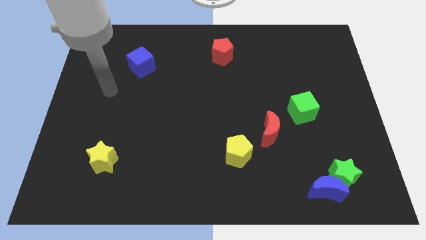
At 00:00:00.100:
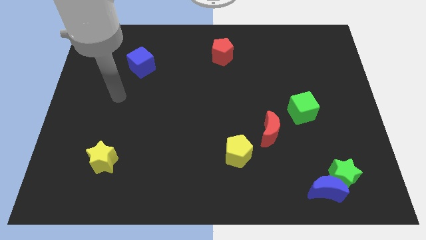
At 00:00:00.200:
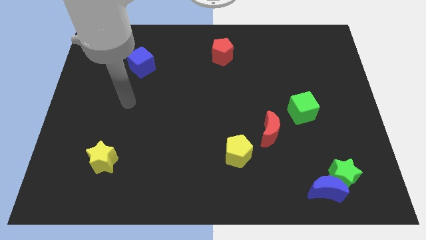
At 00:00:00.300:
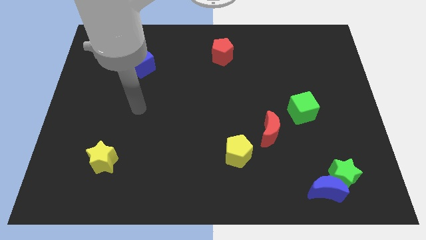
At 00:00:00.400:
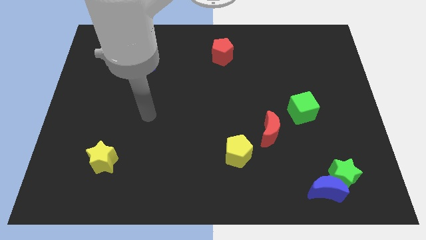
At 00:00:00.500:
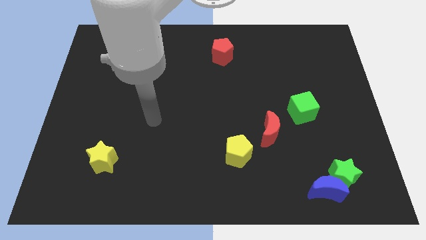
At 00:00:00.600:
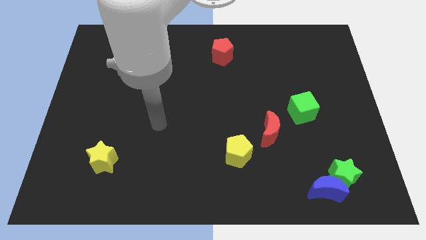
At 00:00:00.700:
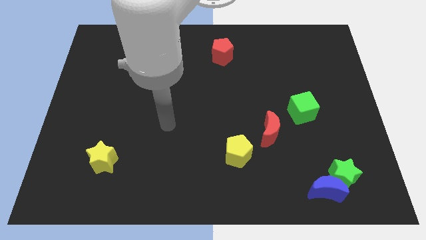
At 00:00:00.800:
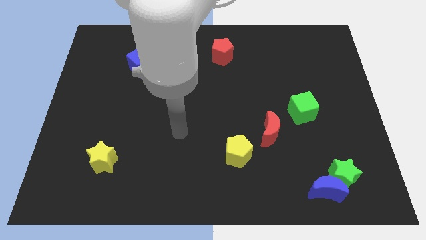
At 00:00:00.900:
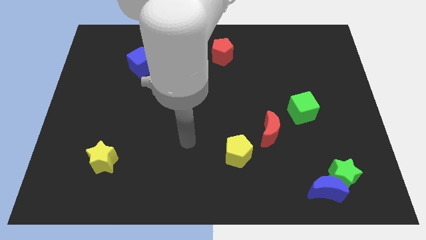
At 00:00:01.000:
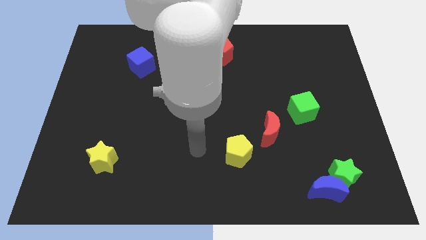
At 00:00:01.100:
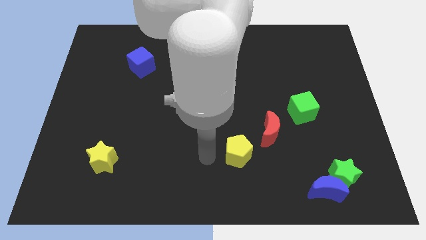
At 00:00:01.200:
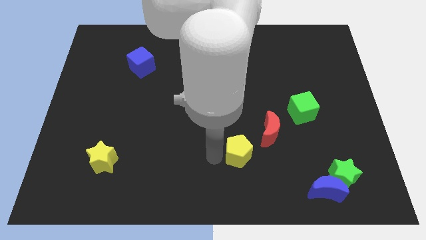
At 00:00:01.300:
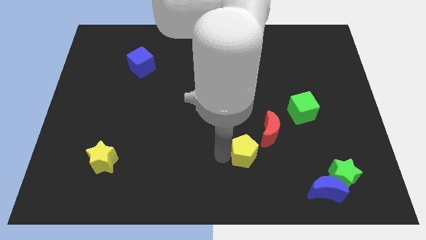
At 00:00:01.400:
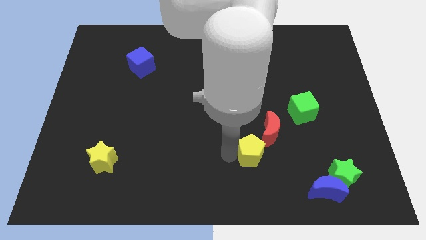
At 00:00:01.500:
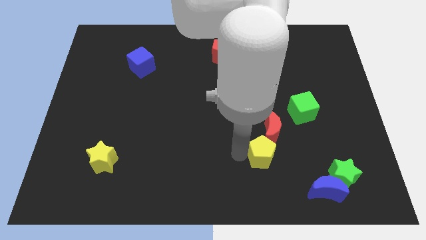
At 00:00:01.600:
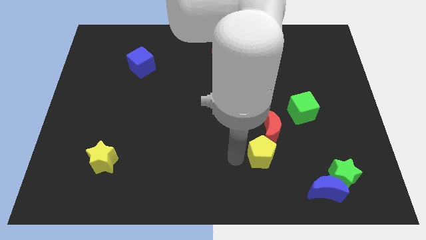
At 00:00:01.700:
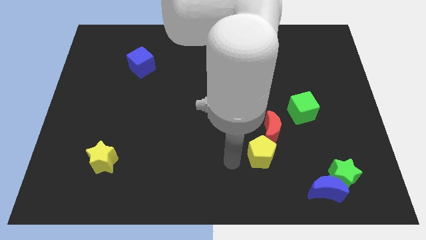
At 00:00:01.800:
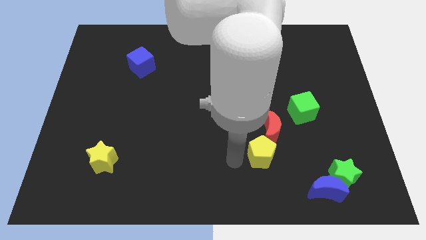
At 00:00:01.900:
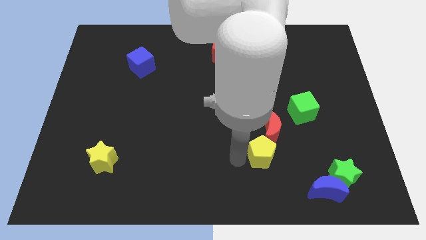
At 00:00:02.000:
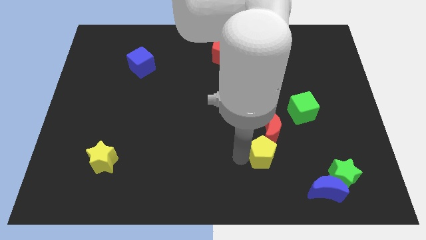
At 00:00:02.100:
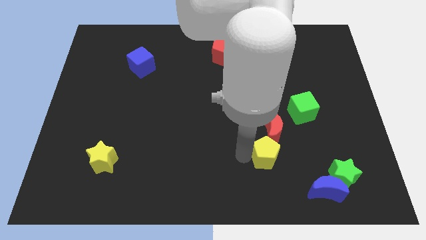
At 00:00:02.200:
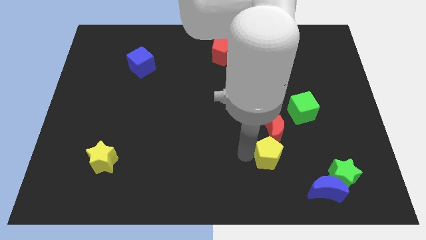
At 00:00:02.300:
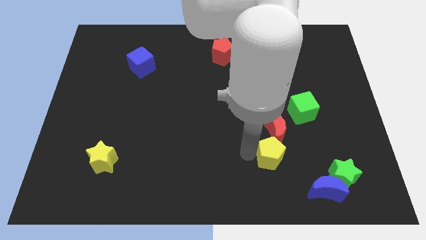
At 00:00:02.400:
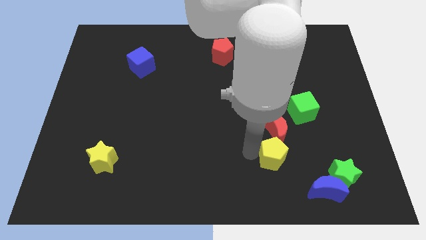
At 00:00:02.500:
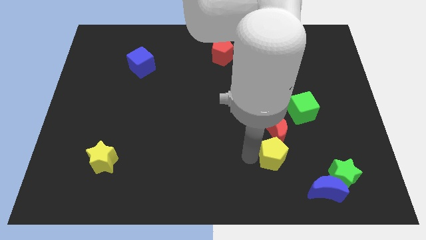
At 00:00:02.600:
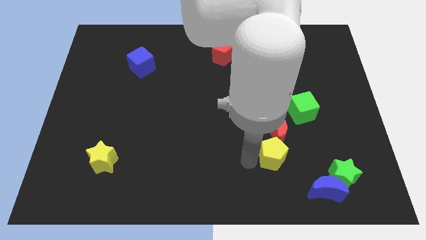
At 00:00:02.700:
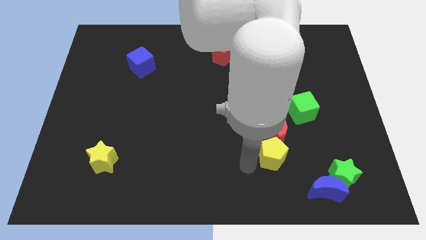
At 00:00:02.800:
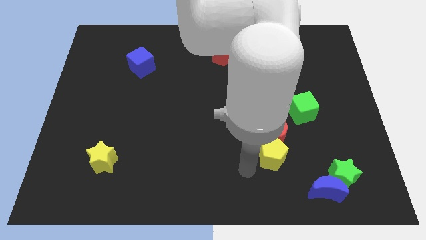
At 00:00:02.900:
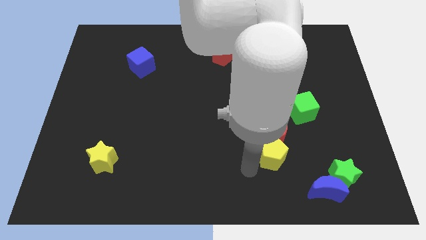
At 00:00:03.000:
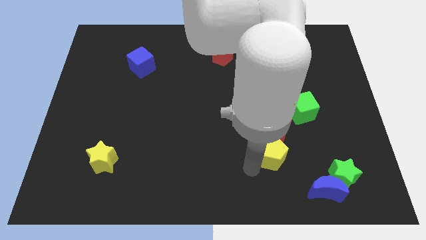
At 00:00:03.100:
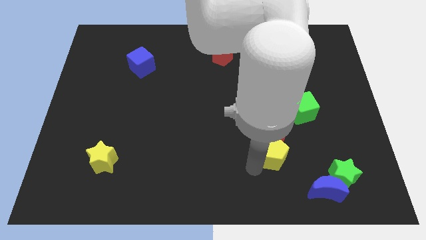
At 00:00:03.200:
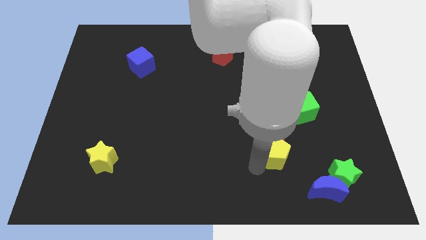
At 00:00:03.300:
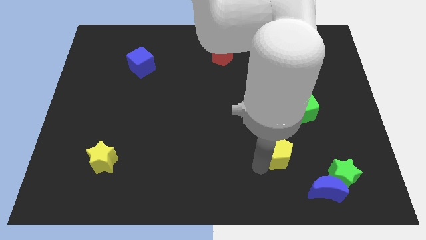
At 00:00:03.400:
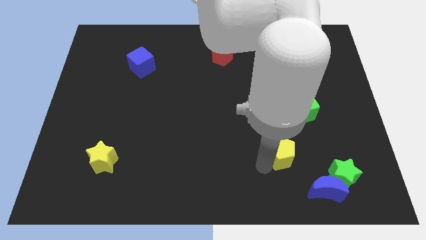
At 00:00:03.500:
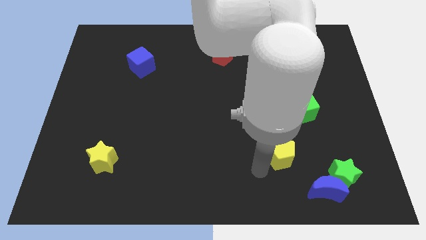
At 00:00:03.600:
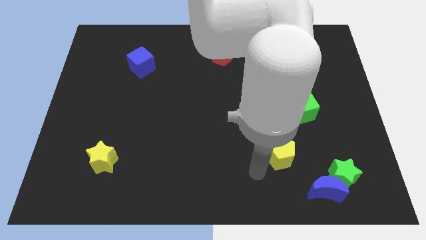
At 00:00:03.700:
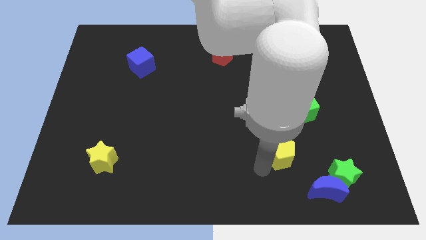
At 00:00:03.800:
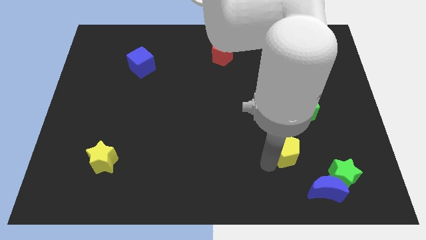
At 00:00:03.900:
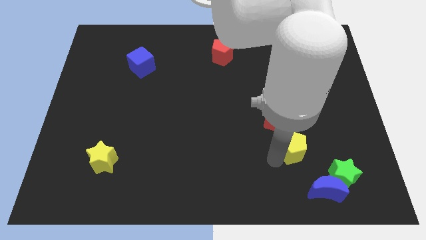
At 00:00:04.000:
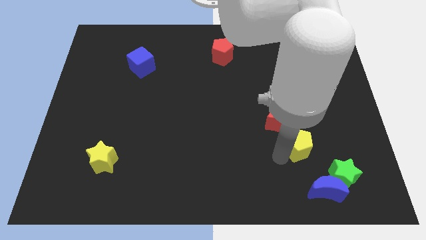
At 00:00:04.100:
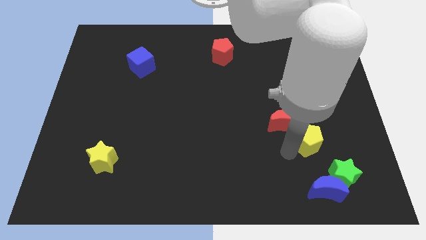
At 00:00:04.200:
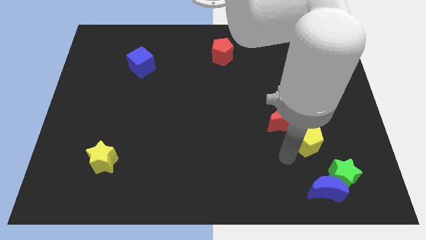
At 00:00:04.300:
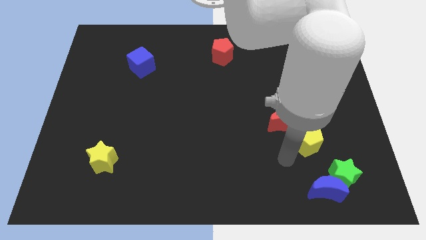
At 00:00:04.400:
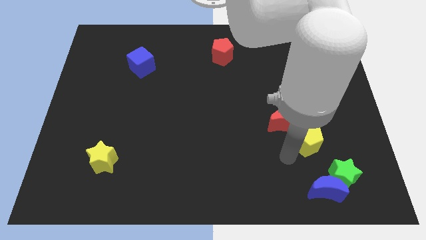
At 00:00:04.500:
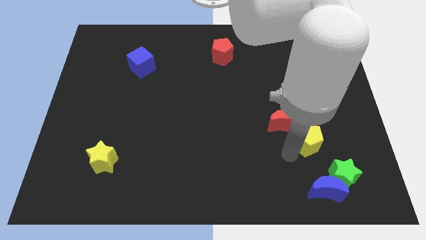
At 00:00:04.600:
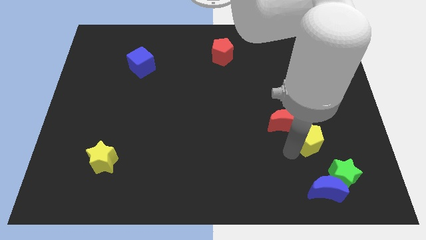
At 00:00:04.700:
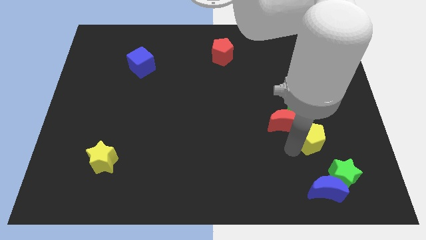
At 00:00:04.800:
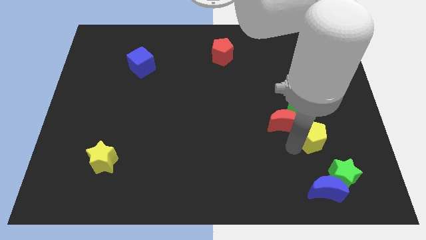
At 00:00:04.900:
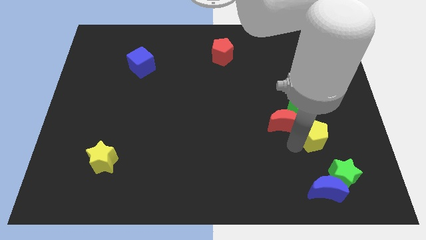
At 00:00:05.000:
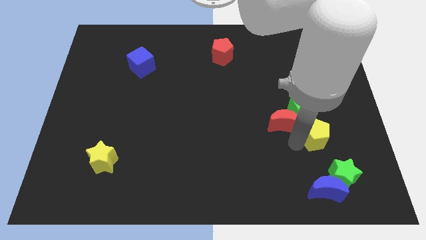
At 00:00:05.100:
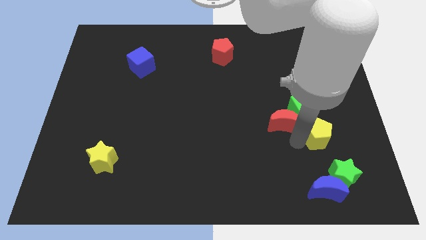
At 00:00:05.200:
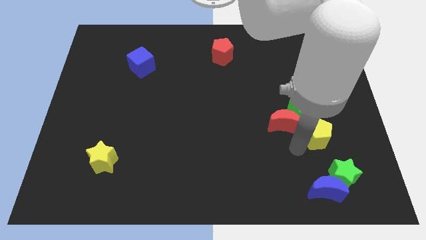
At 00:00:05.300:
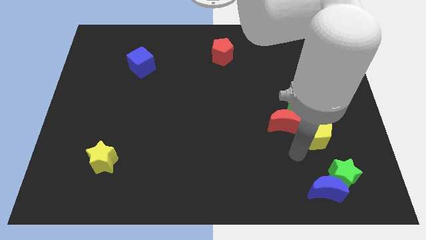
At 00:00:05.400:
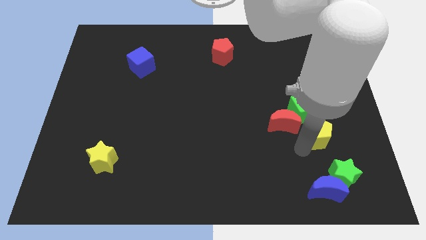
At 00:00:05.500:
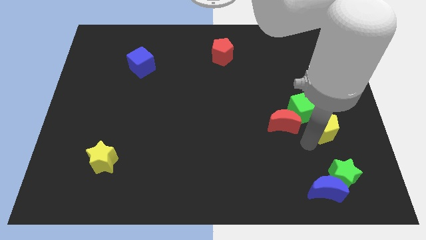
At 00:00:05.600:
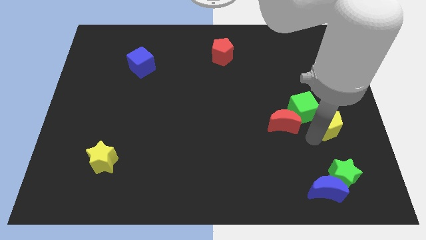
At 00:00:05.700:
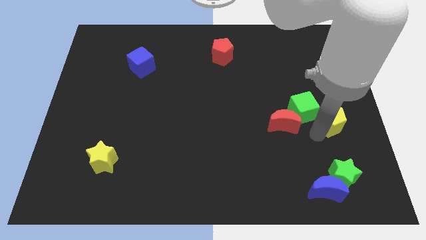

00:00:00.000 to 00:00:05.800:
put the yellow pentagon to the center right
